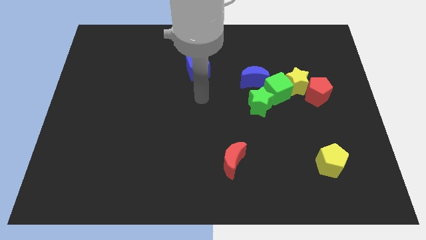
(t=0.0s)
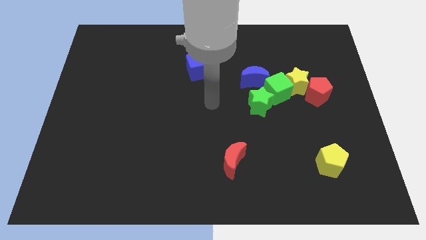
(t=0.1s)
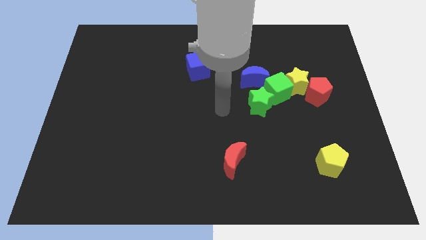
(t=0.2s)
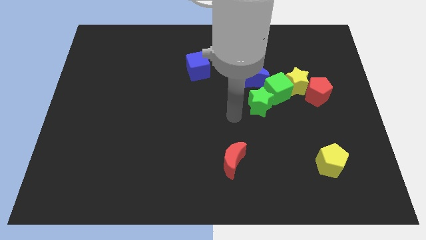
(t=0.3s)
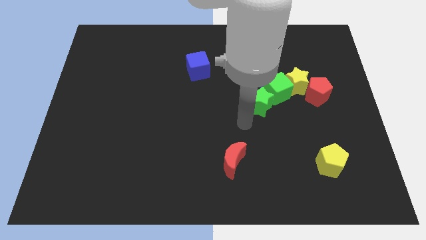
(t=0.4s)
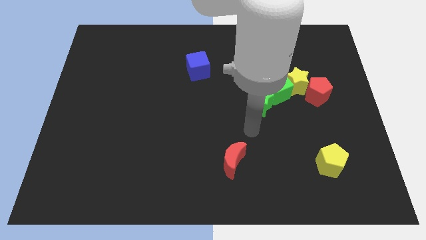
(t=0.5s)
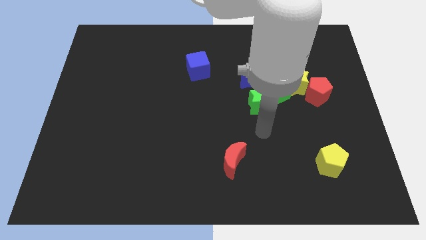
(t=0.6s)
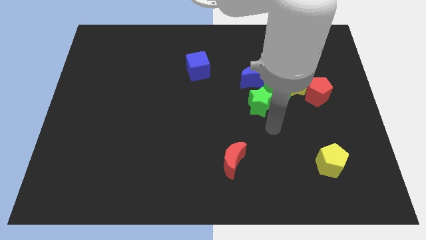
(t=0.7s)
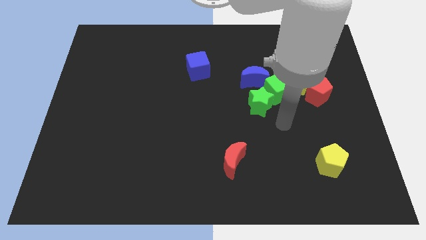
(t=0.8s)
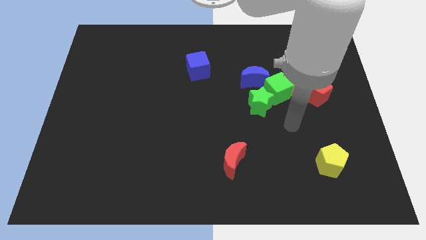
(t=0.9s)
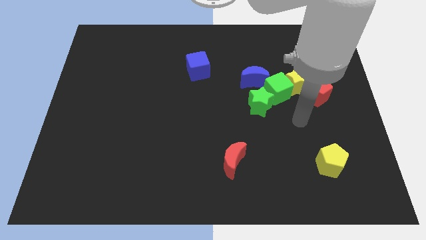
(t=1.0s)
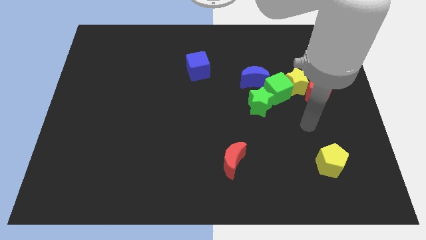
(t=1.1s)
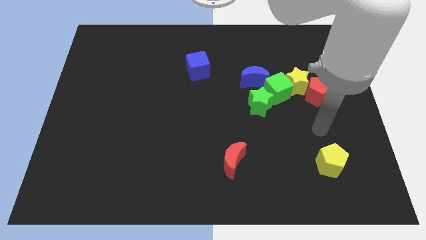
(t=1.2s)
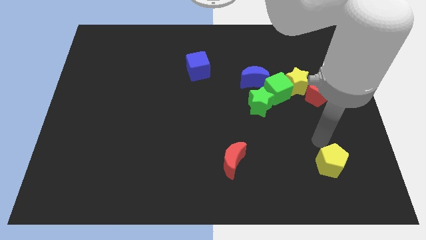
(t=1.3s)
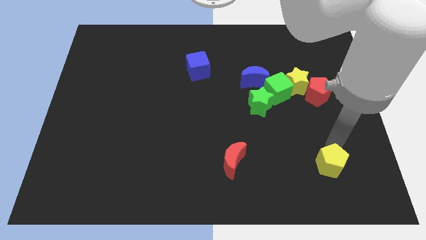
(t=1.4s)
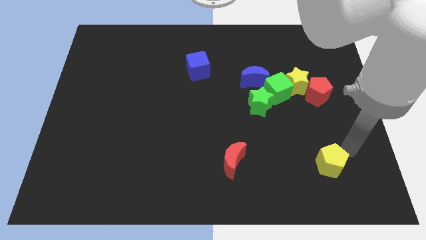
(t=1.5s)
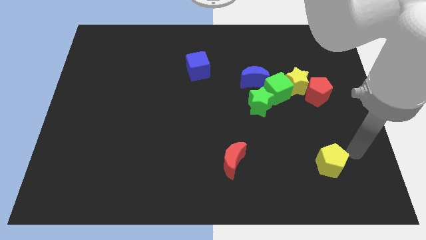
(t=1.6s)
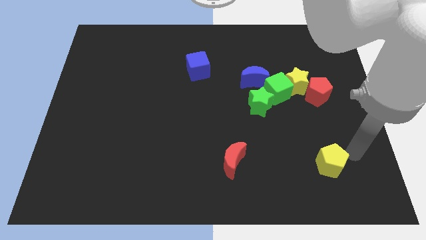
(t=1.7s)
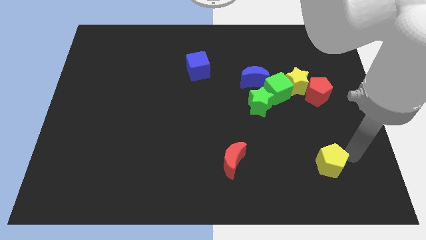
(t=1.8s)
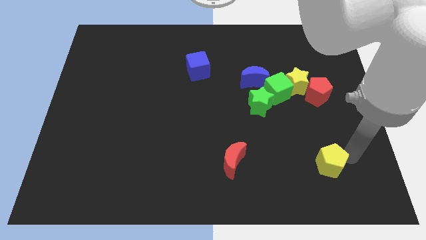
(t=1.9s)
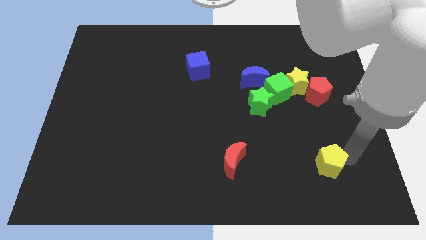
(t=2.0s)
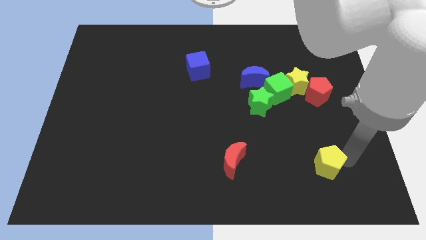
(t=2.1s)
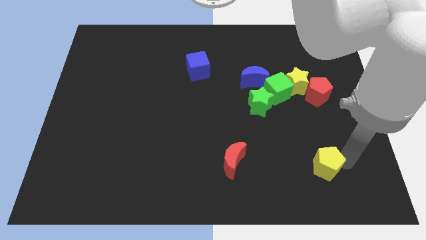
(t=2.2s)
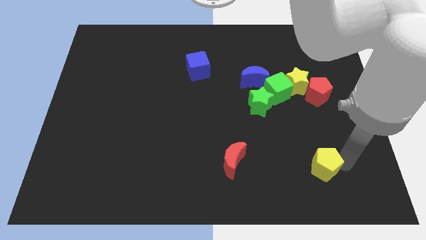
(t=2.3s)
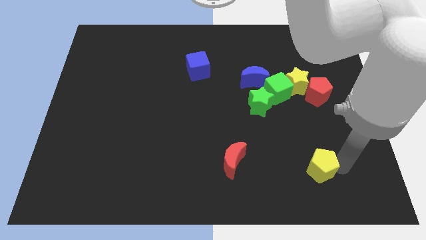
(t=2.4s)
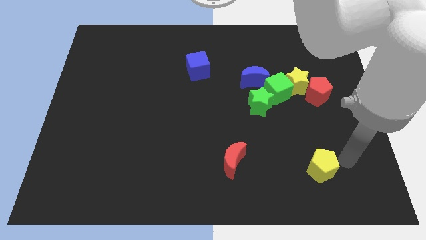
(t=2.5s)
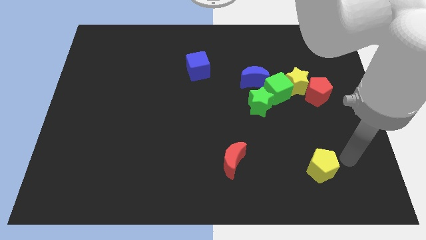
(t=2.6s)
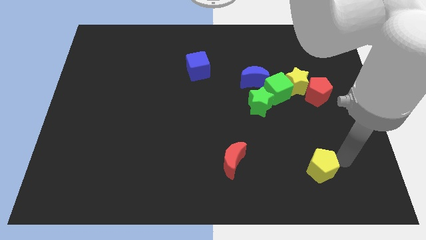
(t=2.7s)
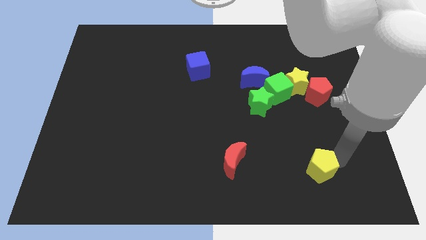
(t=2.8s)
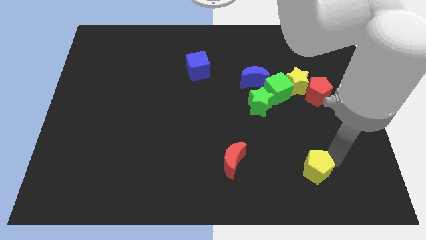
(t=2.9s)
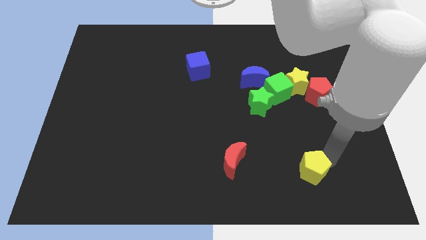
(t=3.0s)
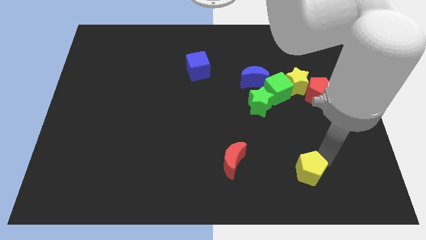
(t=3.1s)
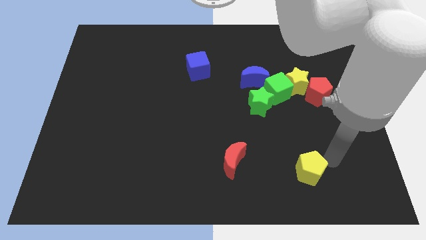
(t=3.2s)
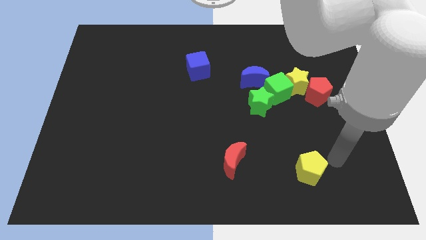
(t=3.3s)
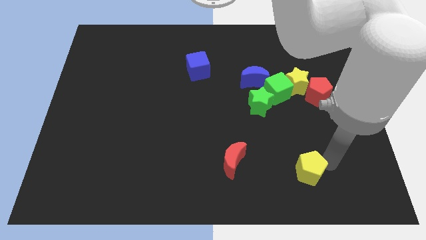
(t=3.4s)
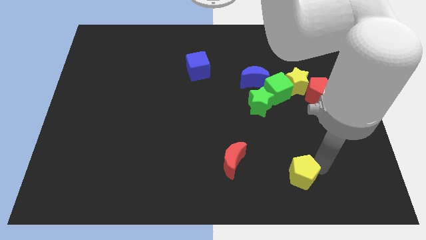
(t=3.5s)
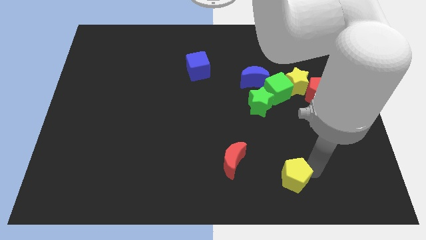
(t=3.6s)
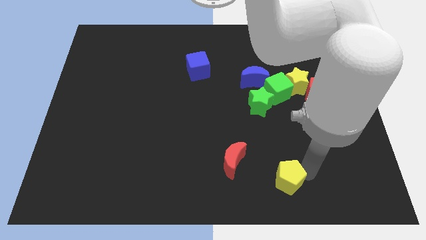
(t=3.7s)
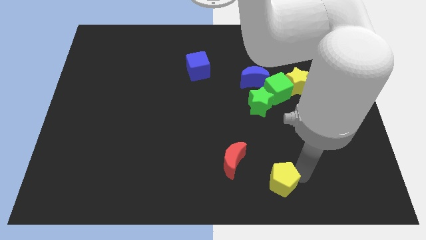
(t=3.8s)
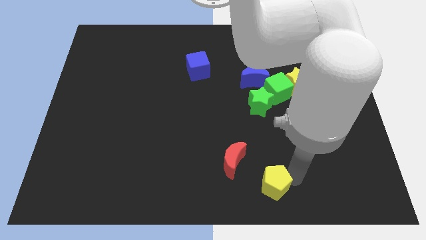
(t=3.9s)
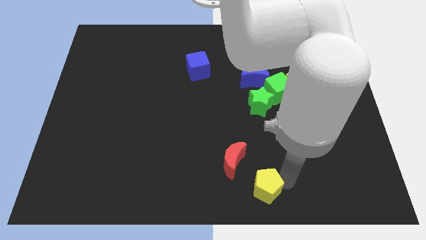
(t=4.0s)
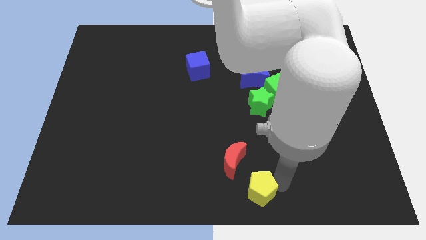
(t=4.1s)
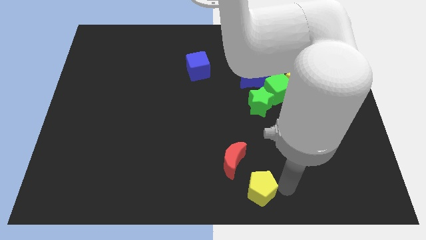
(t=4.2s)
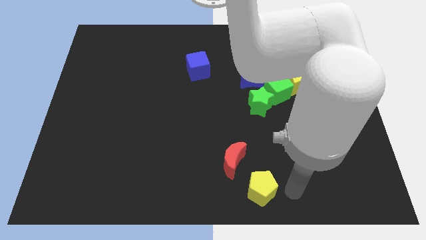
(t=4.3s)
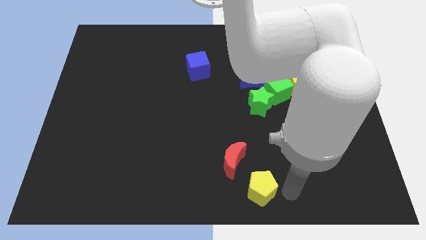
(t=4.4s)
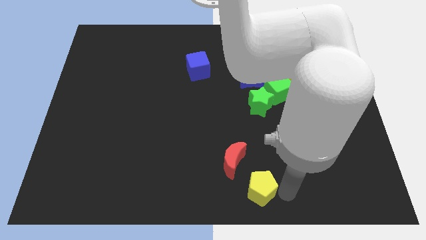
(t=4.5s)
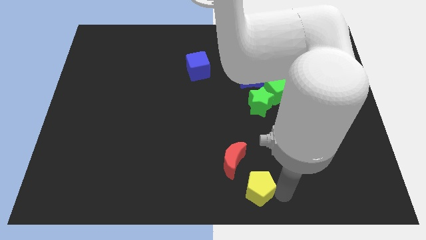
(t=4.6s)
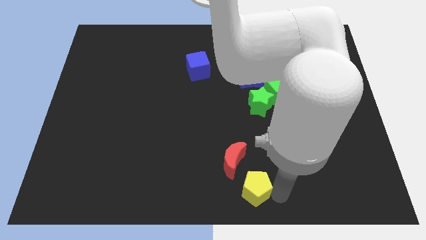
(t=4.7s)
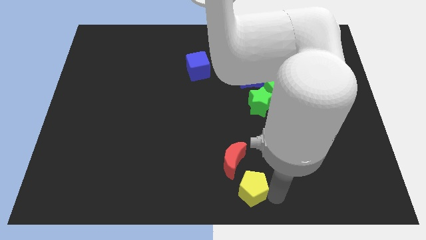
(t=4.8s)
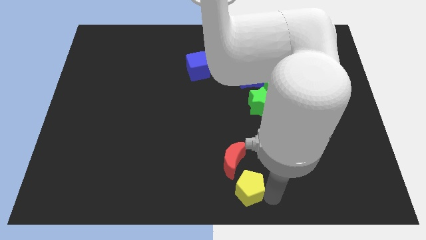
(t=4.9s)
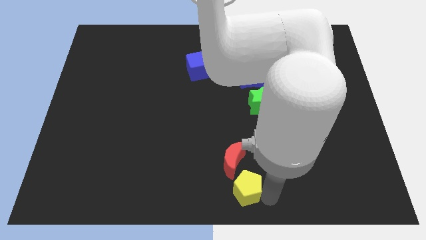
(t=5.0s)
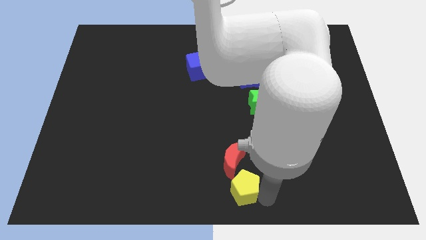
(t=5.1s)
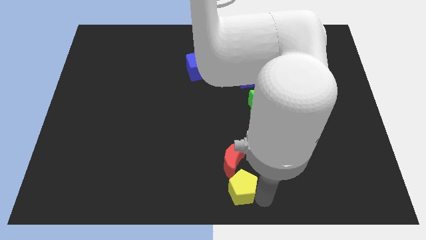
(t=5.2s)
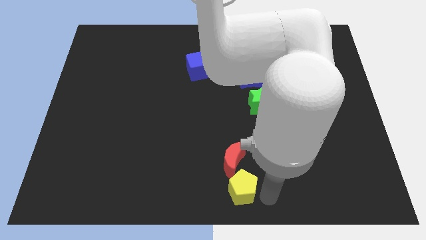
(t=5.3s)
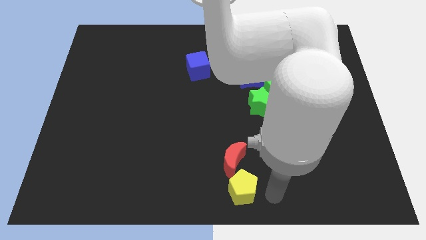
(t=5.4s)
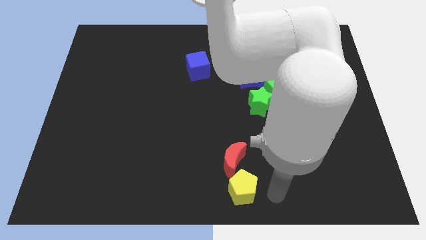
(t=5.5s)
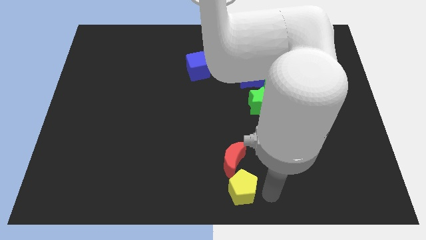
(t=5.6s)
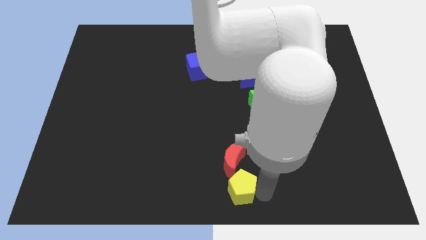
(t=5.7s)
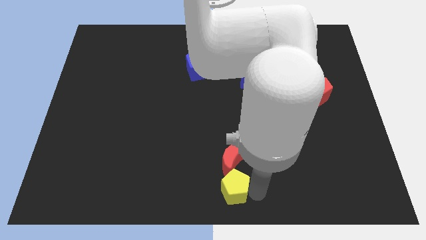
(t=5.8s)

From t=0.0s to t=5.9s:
move the yellow pentagon to the bottom left side of the red moon

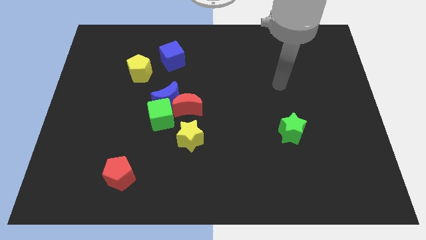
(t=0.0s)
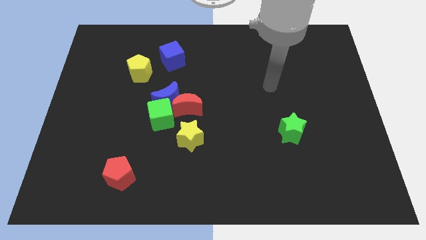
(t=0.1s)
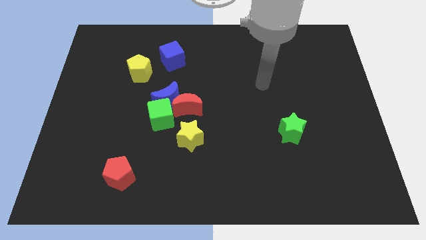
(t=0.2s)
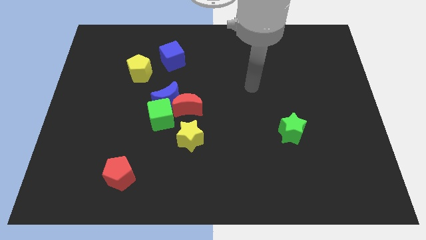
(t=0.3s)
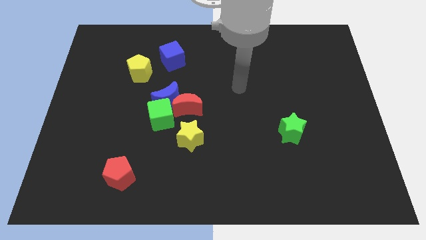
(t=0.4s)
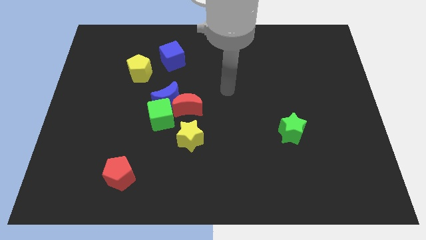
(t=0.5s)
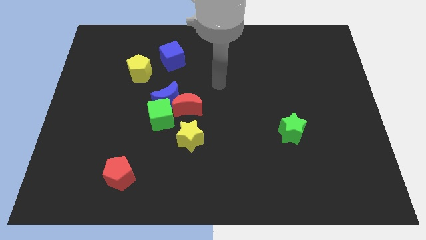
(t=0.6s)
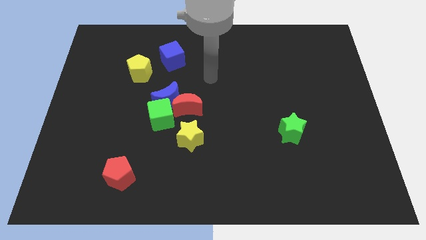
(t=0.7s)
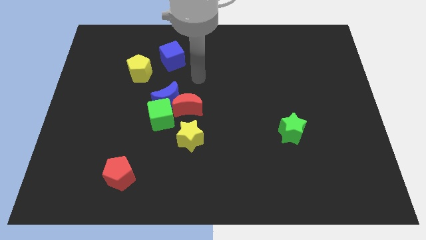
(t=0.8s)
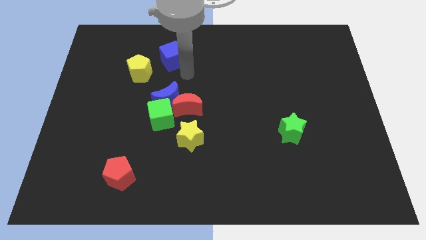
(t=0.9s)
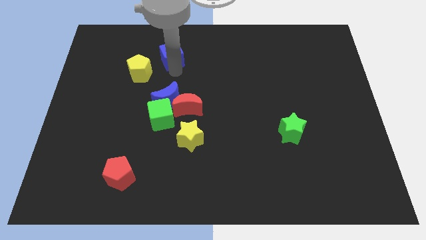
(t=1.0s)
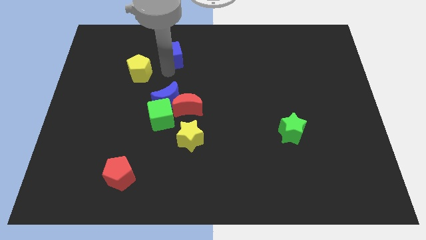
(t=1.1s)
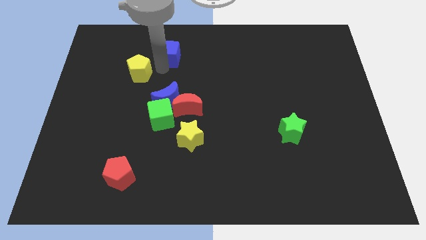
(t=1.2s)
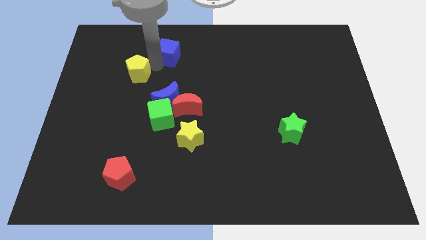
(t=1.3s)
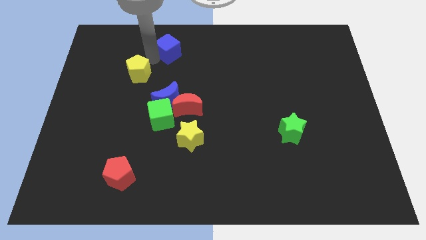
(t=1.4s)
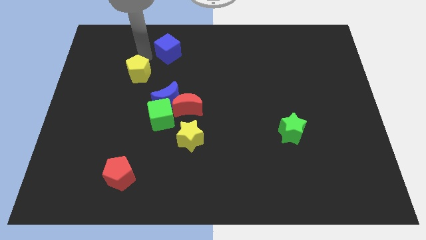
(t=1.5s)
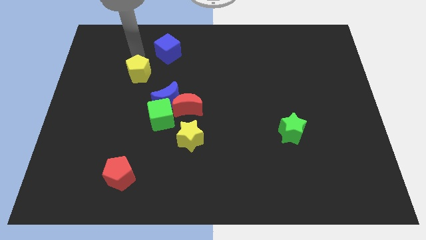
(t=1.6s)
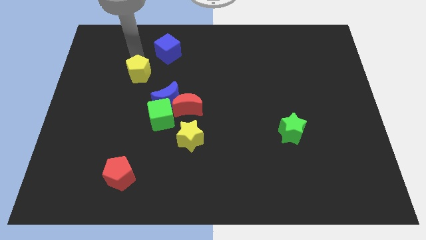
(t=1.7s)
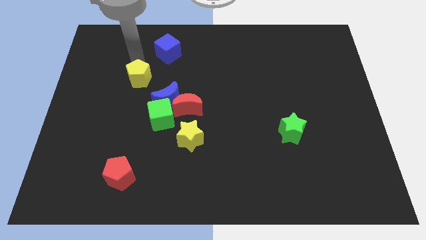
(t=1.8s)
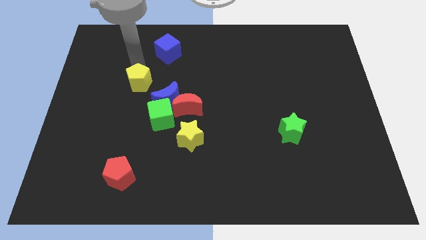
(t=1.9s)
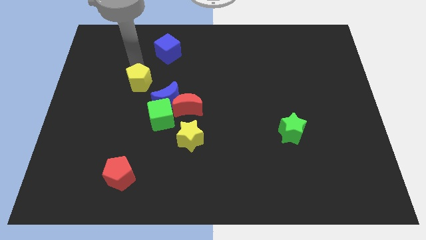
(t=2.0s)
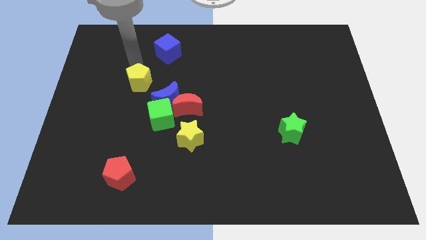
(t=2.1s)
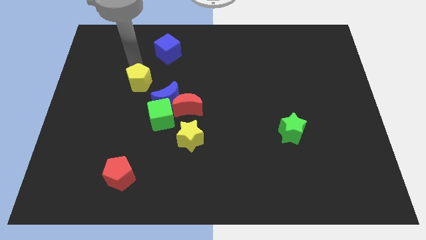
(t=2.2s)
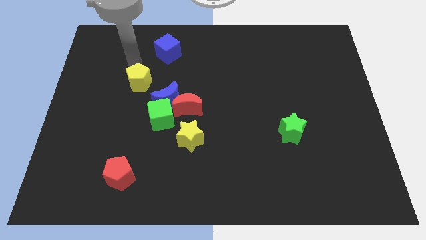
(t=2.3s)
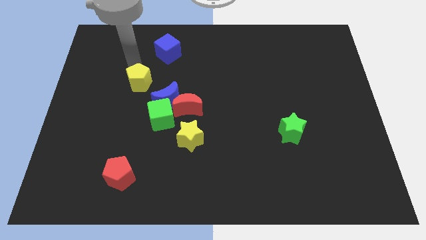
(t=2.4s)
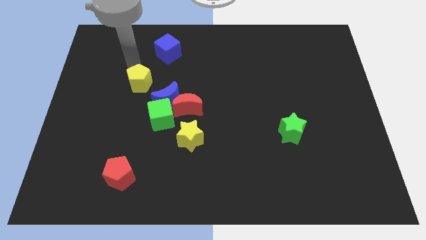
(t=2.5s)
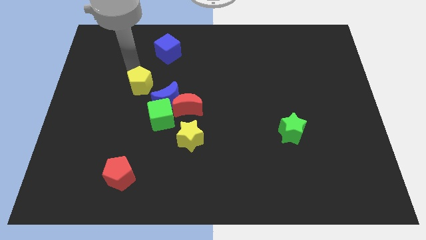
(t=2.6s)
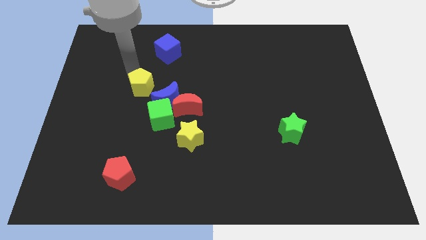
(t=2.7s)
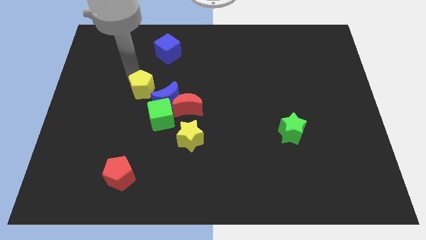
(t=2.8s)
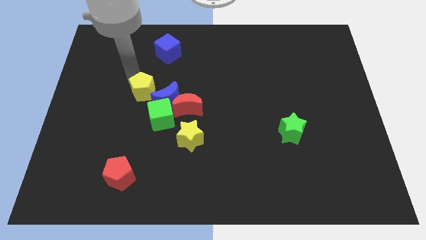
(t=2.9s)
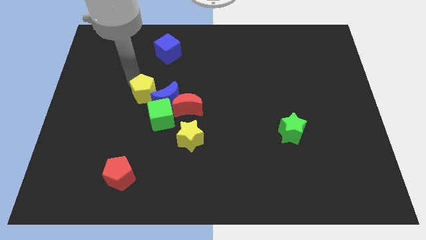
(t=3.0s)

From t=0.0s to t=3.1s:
move the yellow pentagon to the left of the red moon
